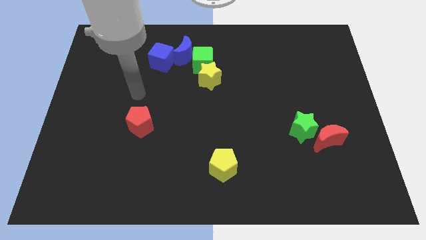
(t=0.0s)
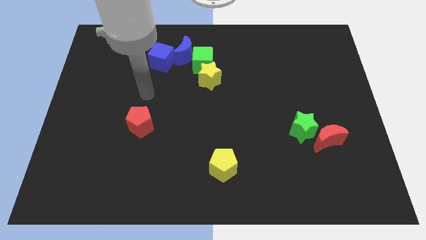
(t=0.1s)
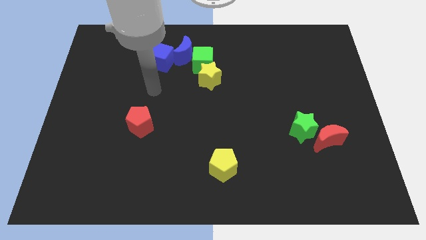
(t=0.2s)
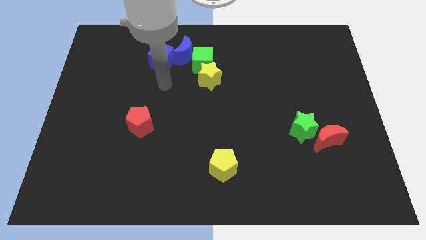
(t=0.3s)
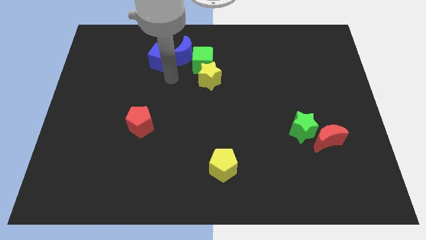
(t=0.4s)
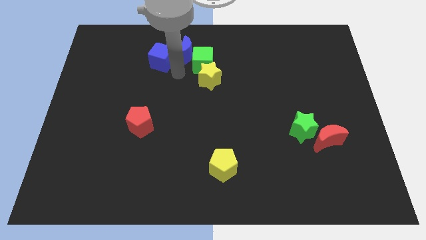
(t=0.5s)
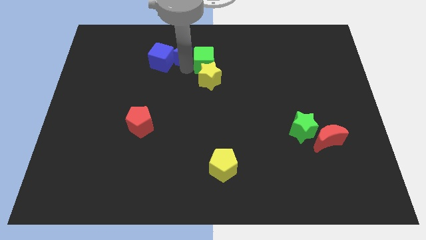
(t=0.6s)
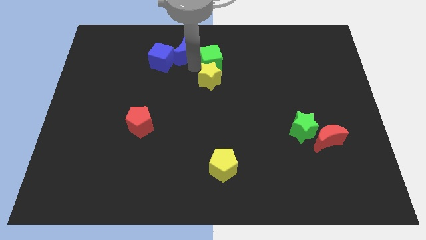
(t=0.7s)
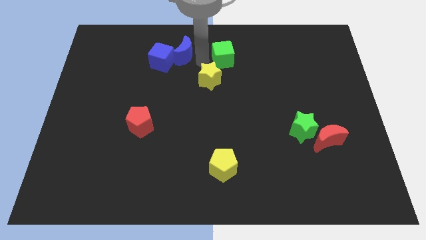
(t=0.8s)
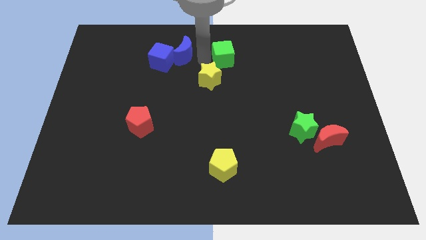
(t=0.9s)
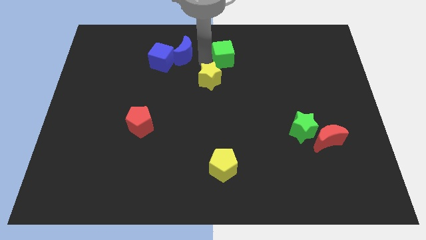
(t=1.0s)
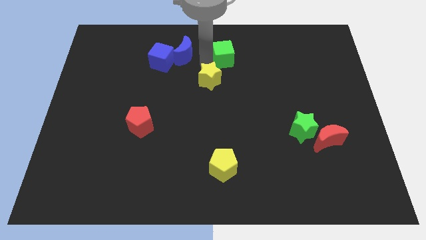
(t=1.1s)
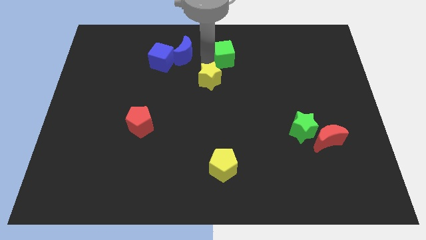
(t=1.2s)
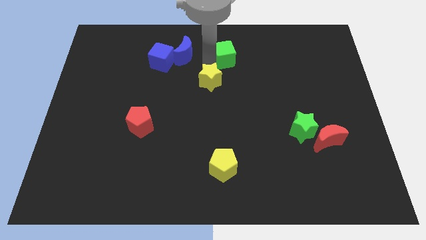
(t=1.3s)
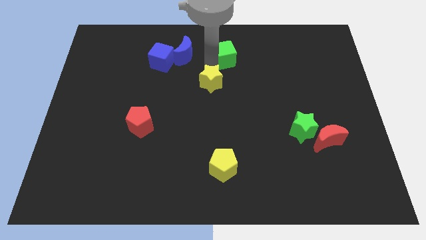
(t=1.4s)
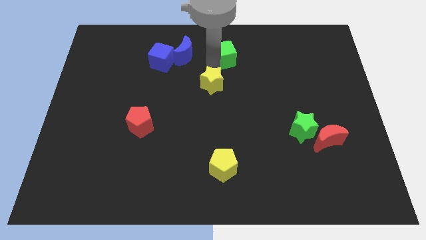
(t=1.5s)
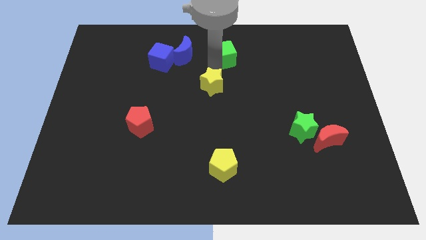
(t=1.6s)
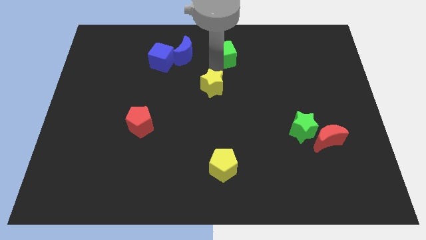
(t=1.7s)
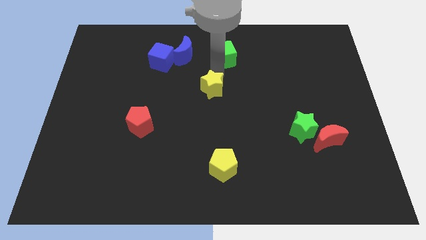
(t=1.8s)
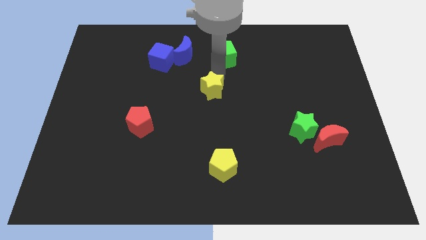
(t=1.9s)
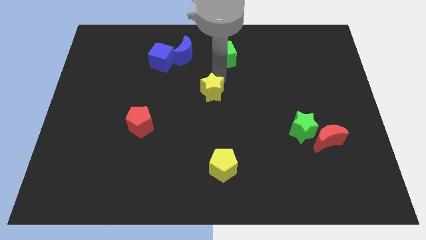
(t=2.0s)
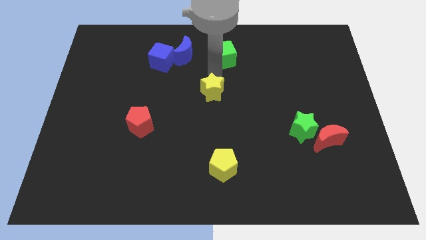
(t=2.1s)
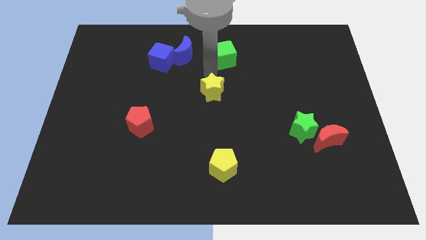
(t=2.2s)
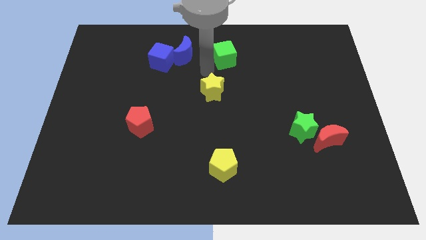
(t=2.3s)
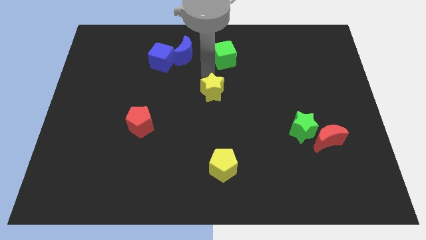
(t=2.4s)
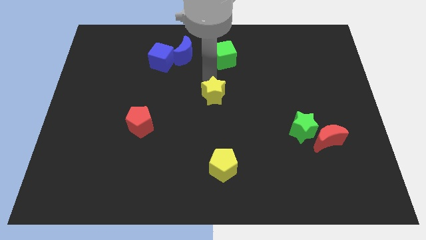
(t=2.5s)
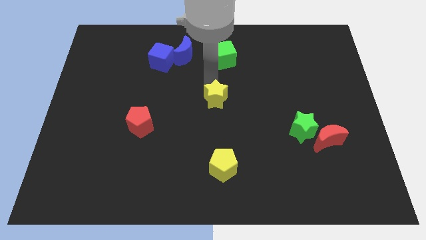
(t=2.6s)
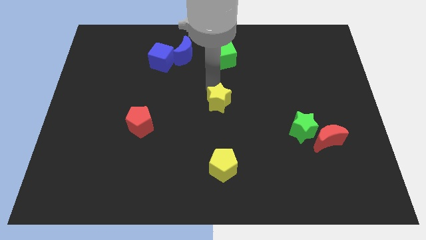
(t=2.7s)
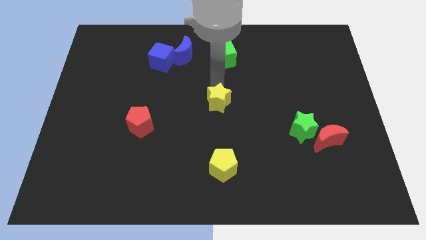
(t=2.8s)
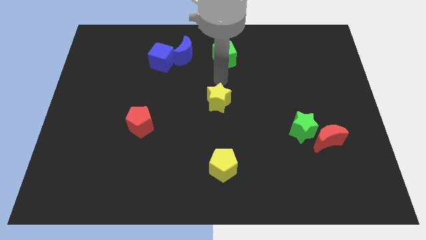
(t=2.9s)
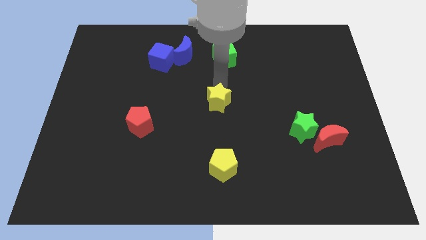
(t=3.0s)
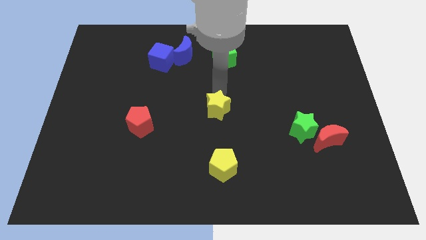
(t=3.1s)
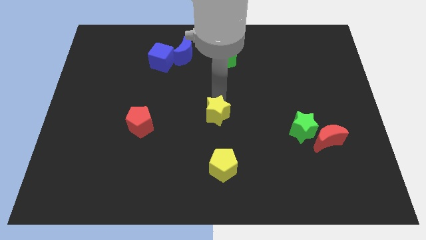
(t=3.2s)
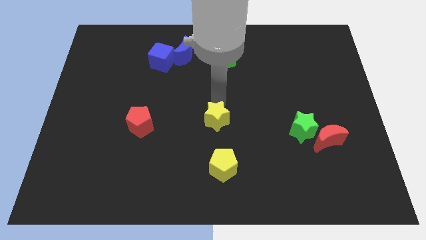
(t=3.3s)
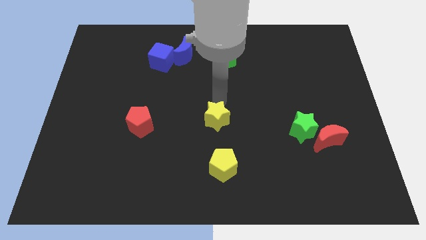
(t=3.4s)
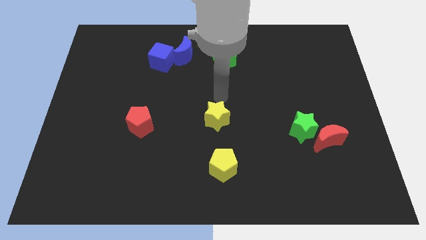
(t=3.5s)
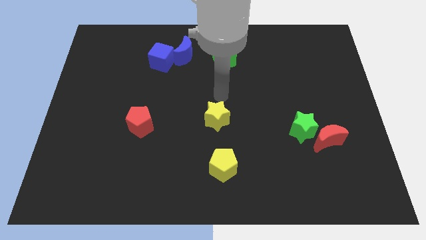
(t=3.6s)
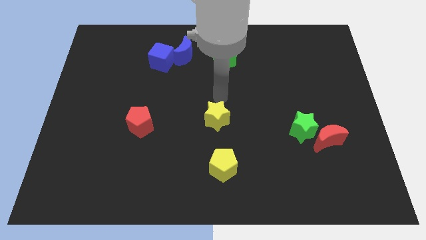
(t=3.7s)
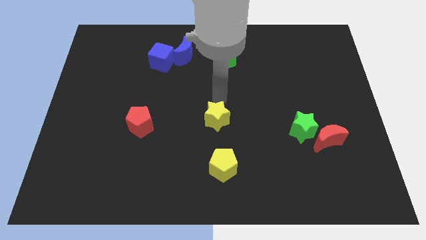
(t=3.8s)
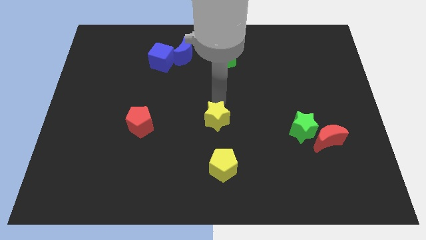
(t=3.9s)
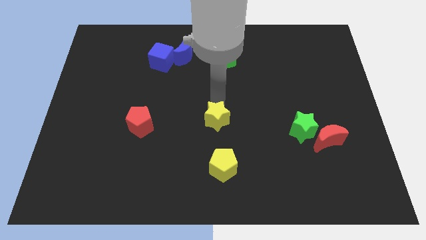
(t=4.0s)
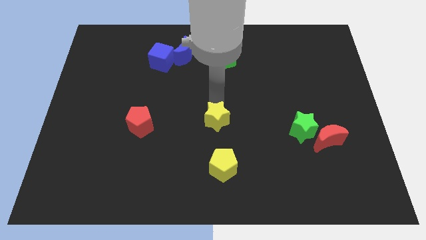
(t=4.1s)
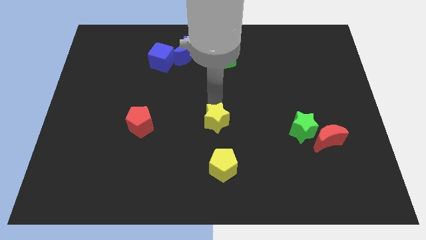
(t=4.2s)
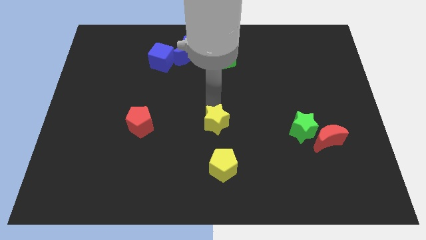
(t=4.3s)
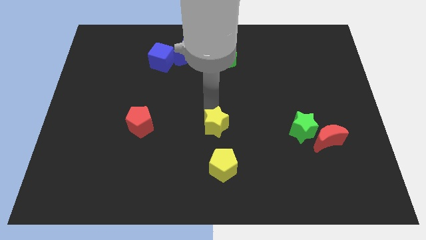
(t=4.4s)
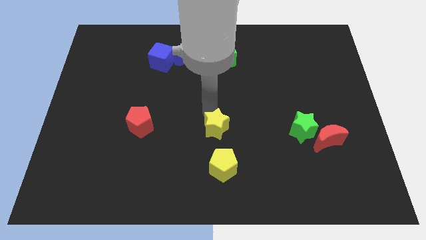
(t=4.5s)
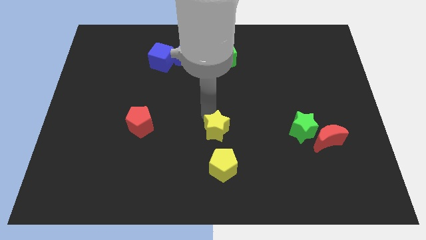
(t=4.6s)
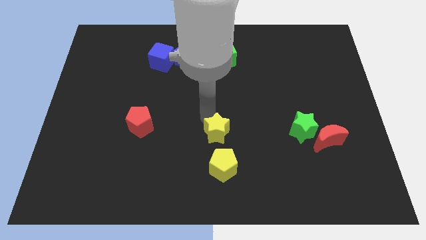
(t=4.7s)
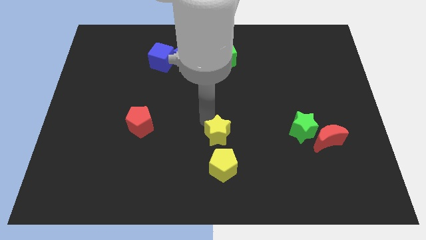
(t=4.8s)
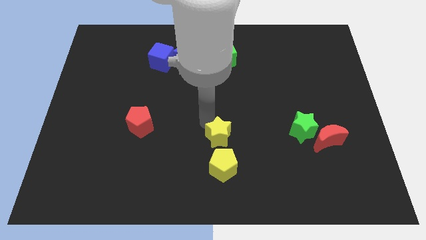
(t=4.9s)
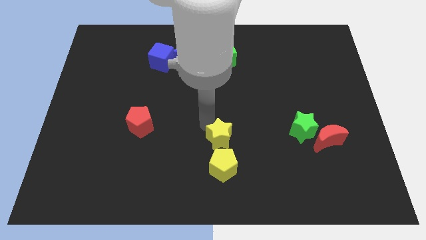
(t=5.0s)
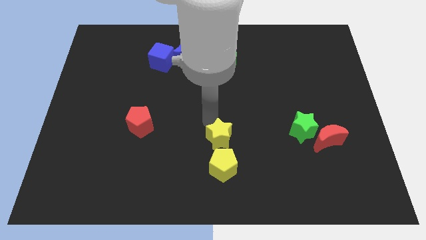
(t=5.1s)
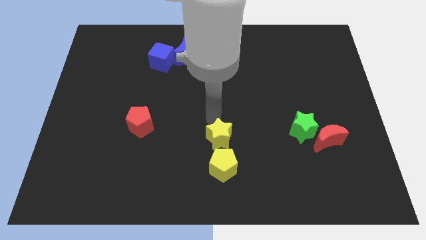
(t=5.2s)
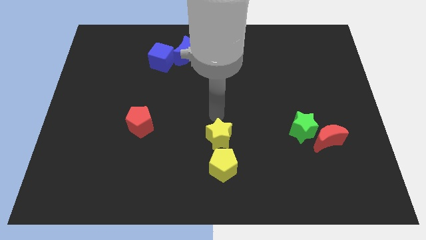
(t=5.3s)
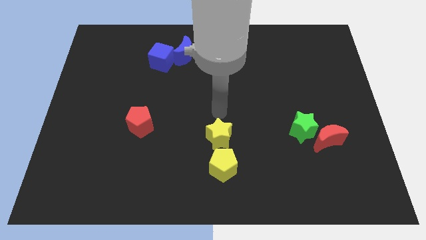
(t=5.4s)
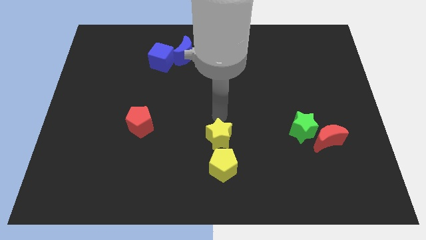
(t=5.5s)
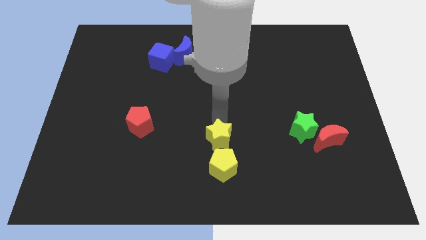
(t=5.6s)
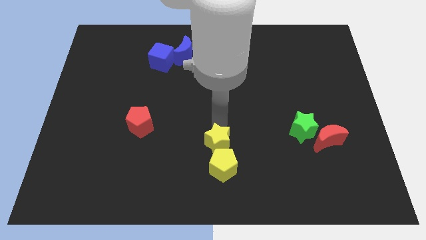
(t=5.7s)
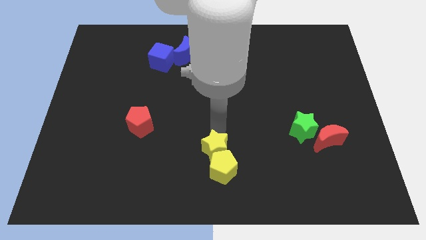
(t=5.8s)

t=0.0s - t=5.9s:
push the yellow star close to the yellow pentagon

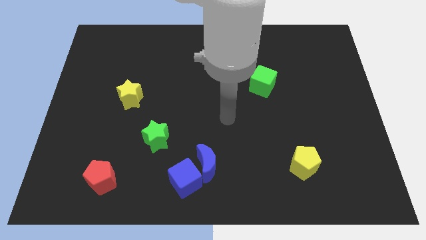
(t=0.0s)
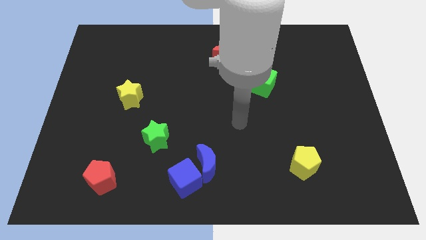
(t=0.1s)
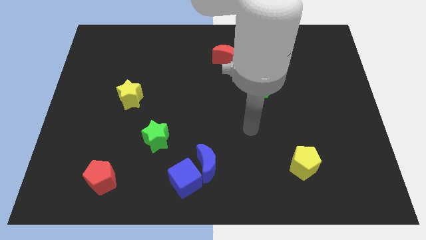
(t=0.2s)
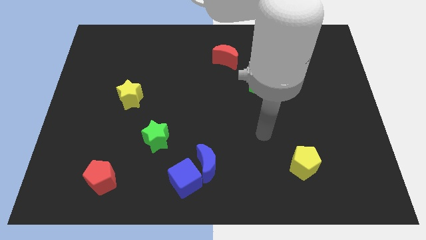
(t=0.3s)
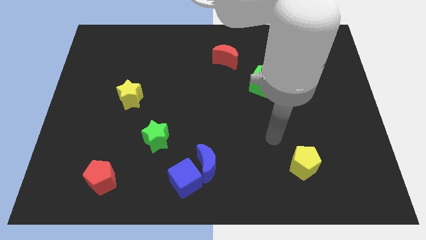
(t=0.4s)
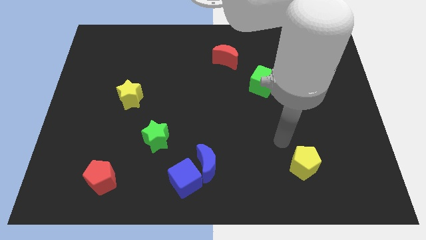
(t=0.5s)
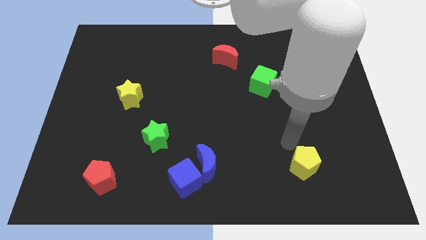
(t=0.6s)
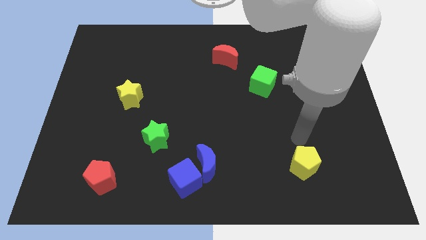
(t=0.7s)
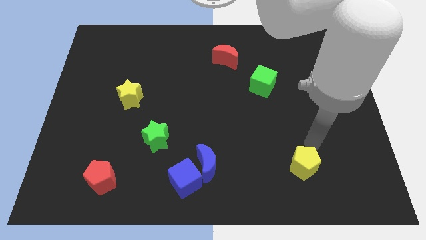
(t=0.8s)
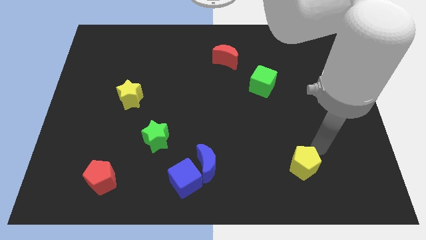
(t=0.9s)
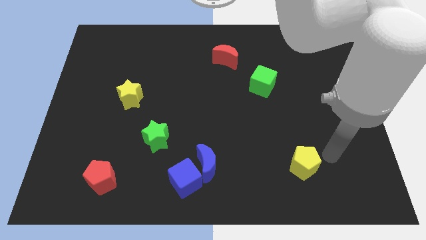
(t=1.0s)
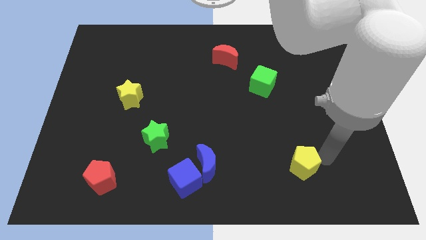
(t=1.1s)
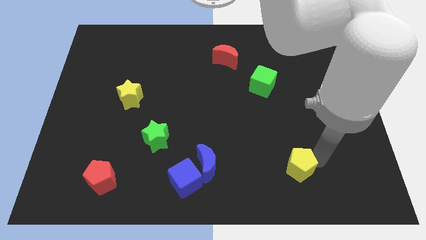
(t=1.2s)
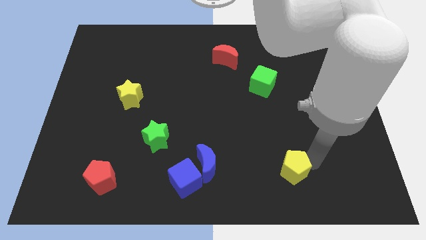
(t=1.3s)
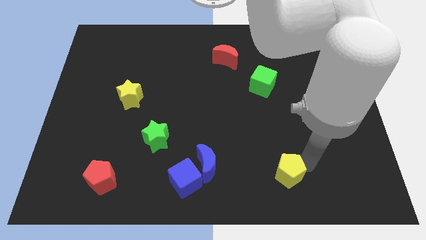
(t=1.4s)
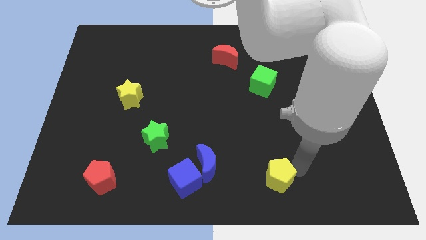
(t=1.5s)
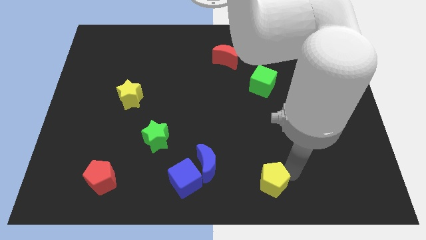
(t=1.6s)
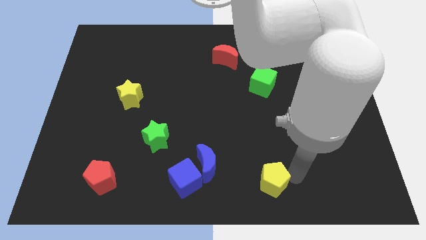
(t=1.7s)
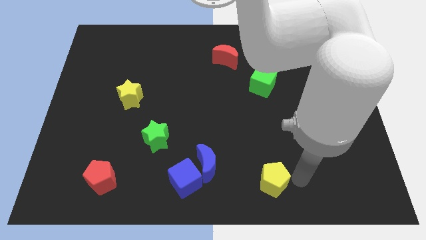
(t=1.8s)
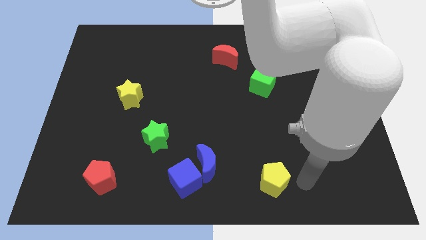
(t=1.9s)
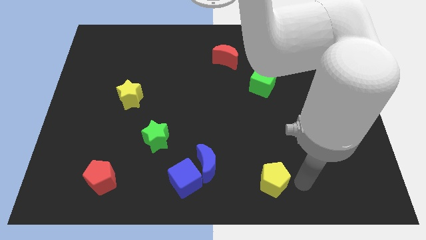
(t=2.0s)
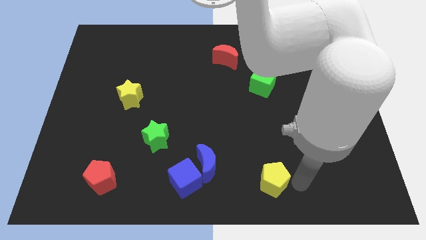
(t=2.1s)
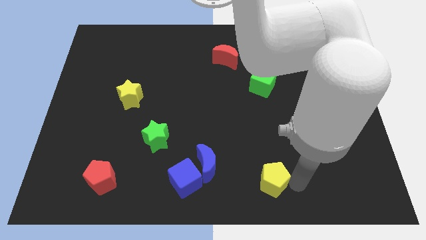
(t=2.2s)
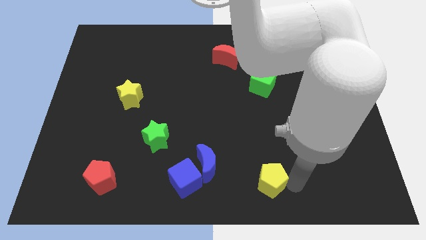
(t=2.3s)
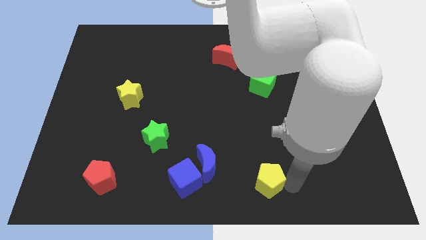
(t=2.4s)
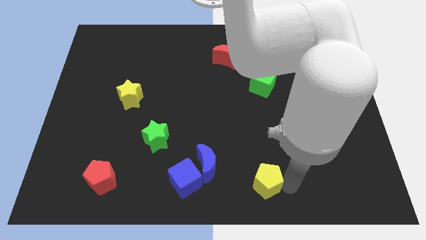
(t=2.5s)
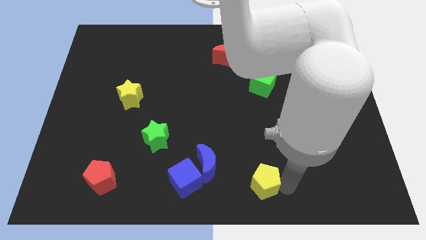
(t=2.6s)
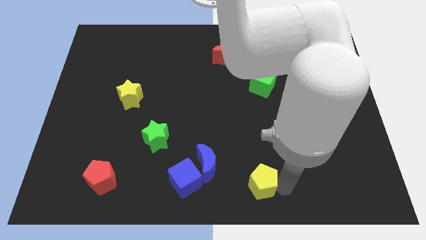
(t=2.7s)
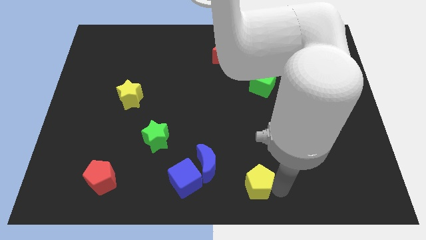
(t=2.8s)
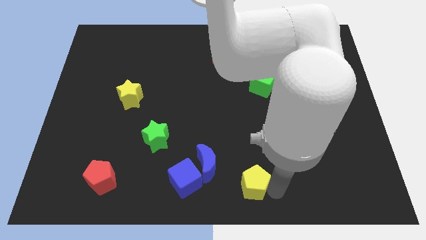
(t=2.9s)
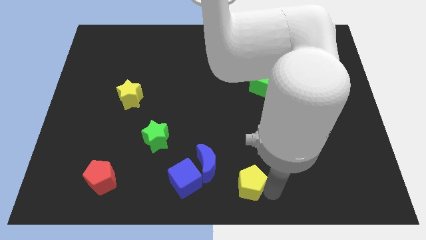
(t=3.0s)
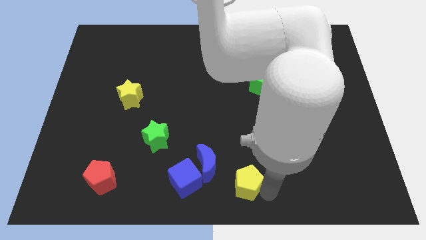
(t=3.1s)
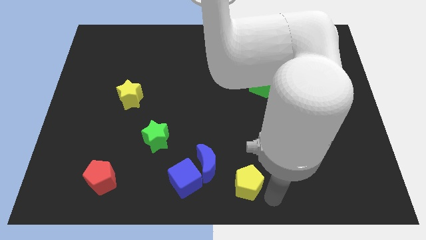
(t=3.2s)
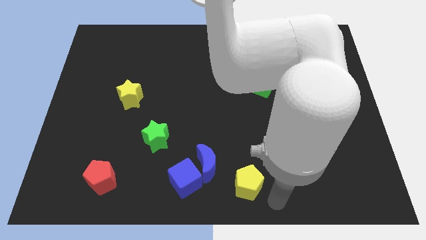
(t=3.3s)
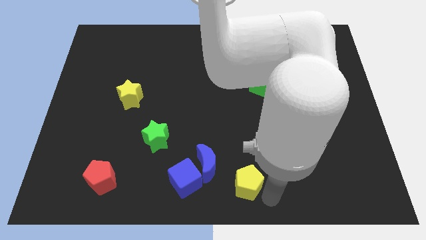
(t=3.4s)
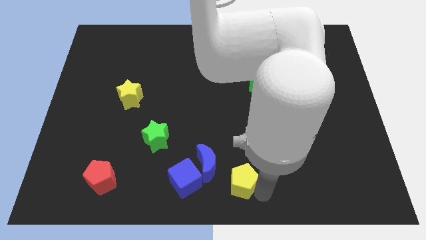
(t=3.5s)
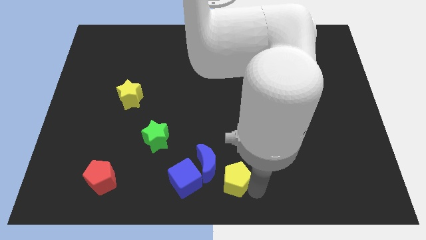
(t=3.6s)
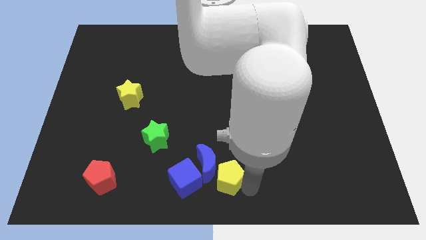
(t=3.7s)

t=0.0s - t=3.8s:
slide the yellow pentagon close to the blue moon
